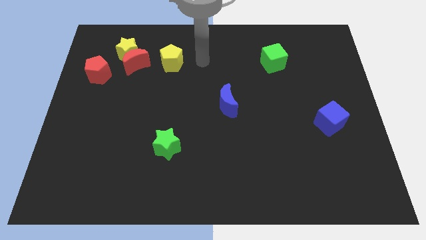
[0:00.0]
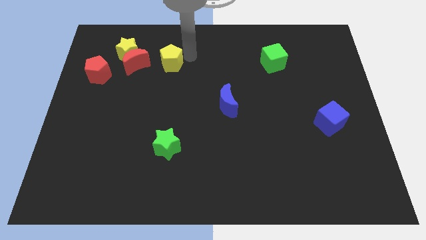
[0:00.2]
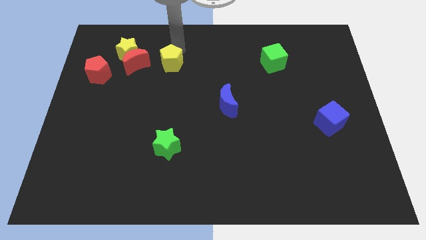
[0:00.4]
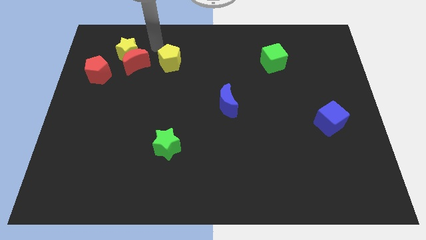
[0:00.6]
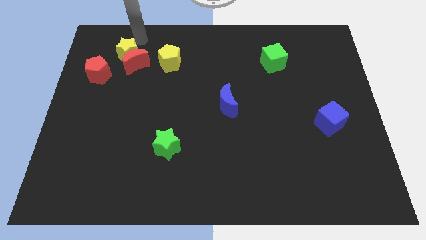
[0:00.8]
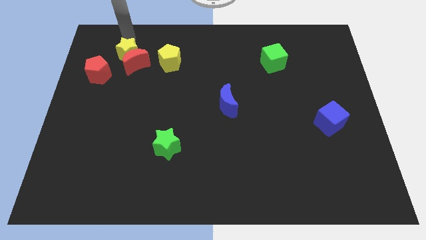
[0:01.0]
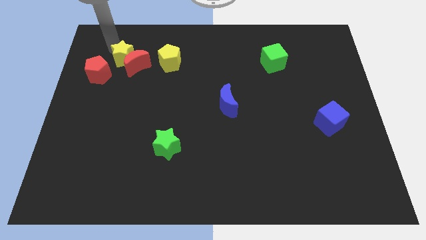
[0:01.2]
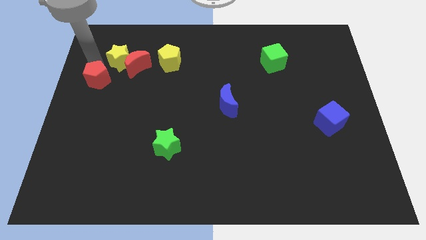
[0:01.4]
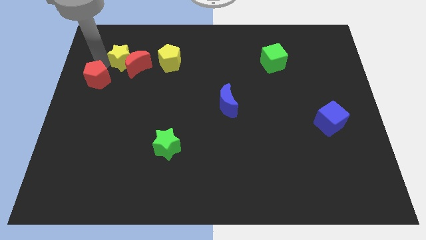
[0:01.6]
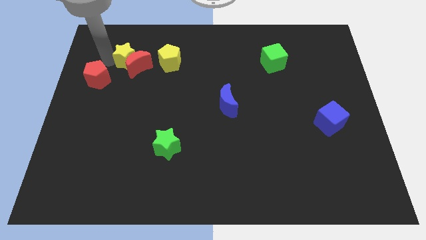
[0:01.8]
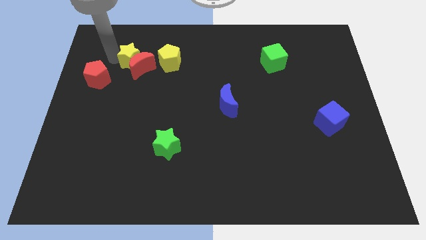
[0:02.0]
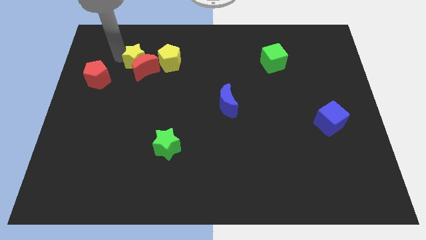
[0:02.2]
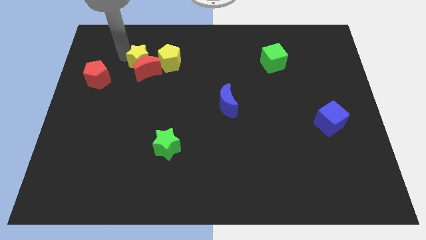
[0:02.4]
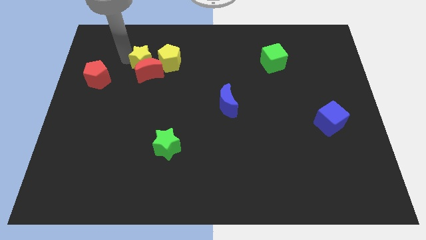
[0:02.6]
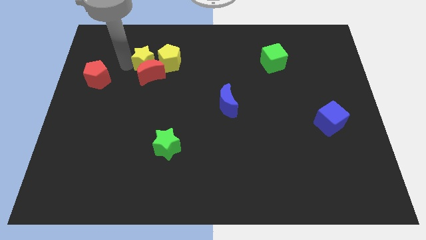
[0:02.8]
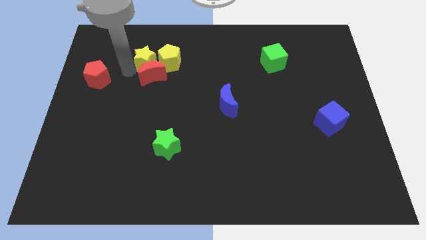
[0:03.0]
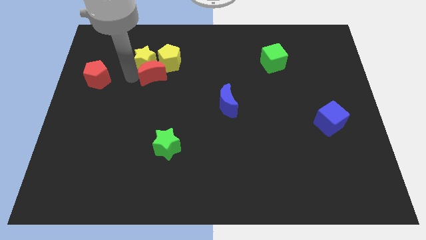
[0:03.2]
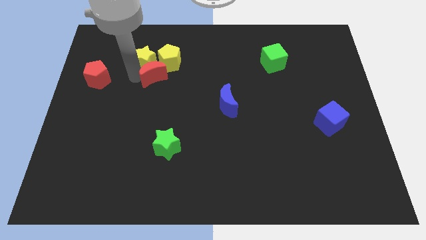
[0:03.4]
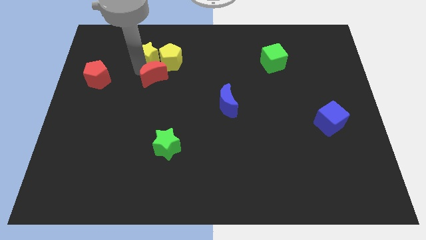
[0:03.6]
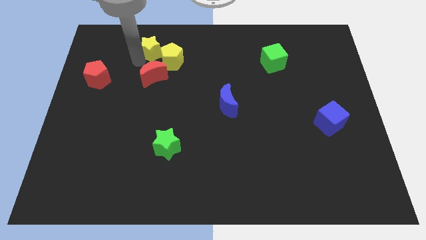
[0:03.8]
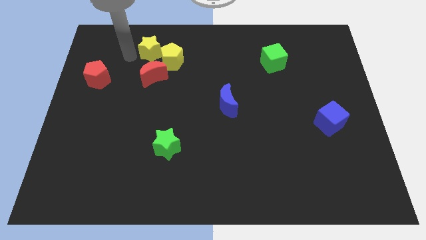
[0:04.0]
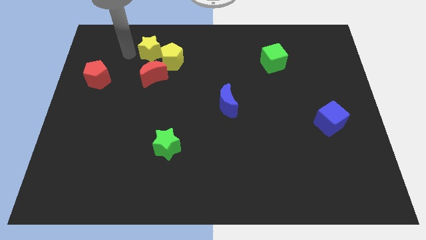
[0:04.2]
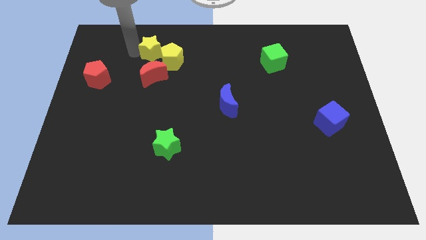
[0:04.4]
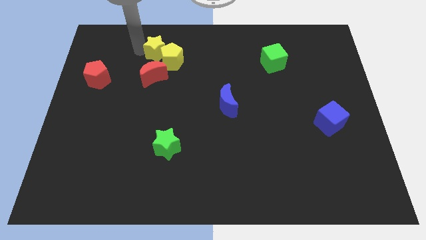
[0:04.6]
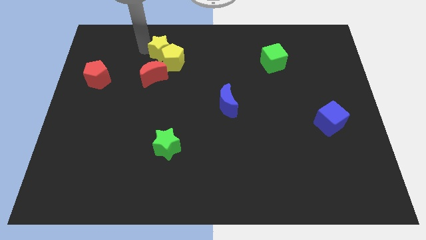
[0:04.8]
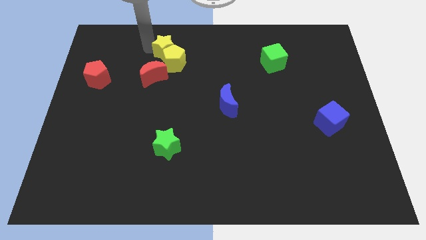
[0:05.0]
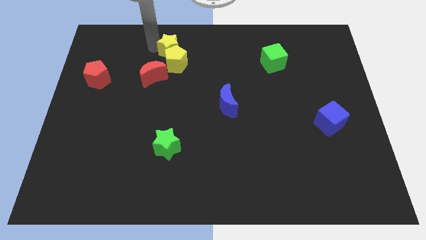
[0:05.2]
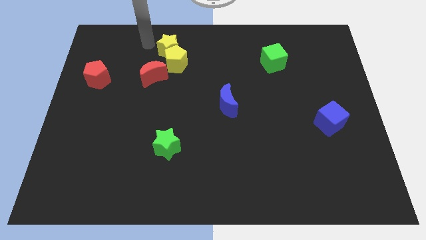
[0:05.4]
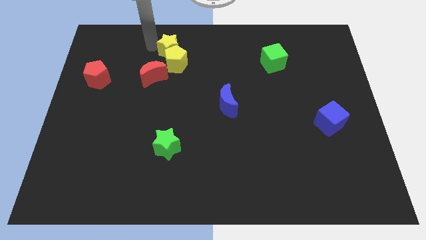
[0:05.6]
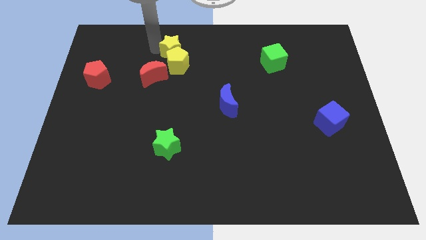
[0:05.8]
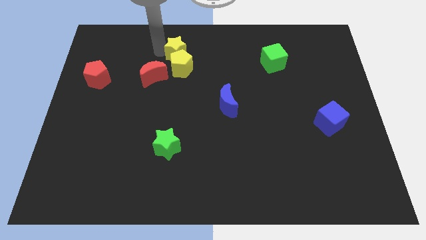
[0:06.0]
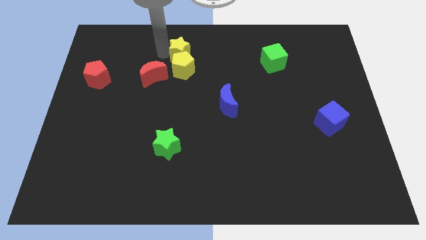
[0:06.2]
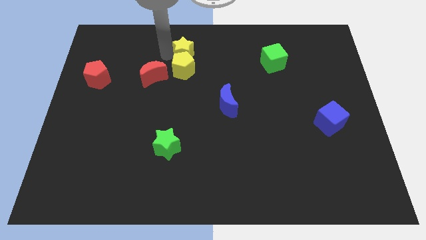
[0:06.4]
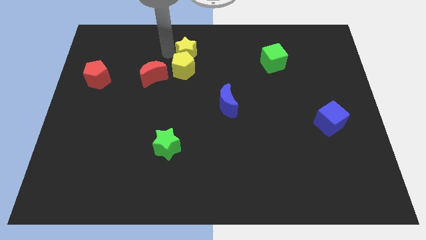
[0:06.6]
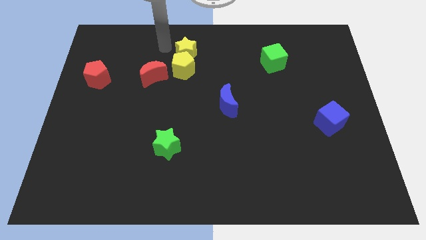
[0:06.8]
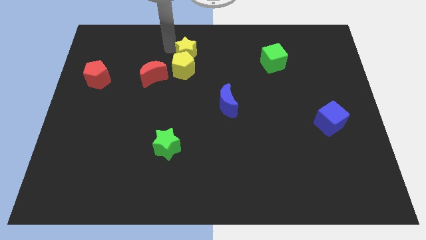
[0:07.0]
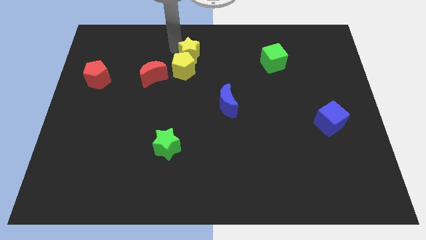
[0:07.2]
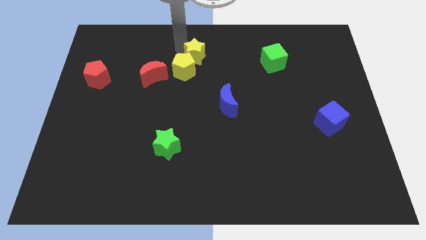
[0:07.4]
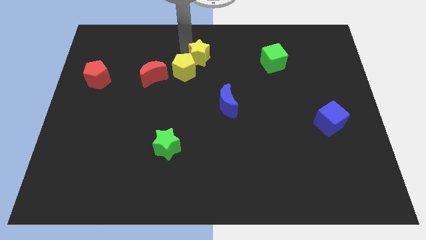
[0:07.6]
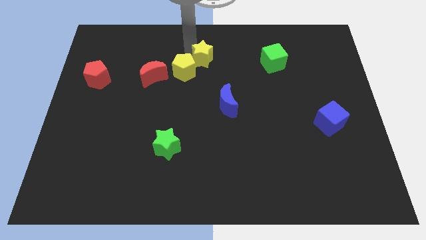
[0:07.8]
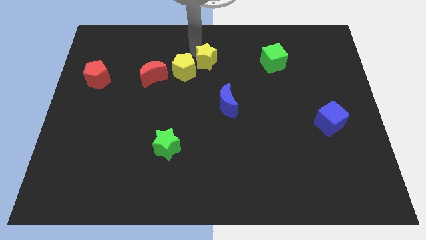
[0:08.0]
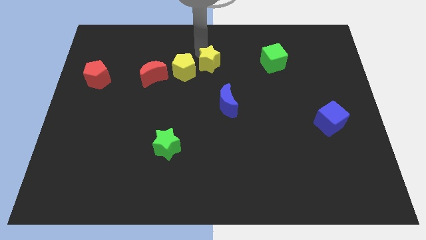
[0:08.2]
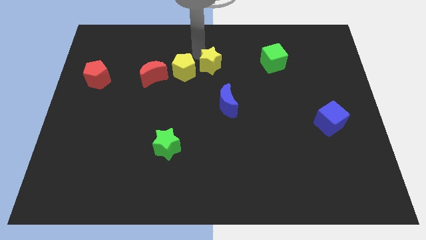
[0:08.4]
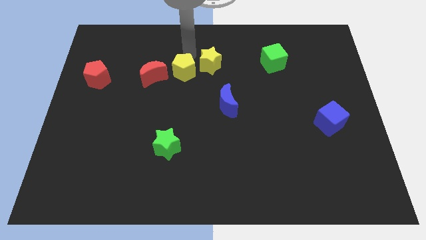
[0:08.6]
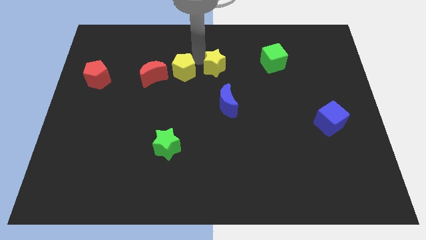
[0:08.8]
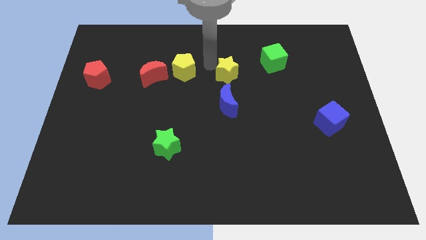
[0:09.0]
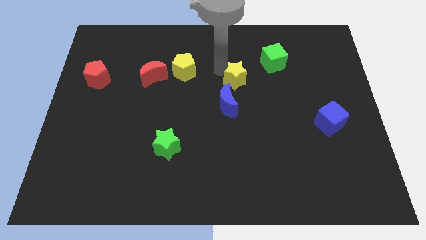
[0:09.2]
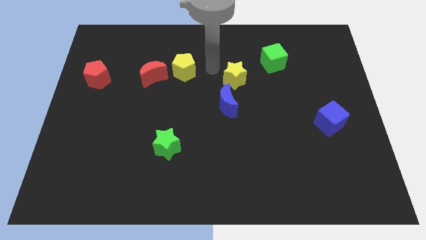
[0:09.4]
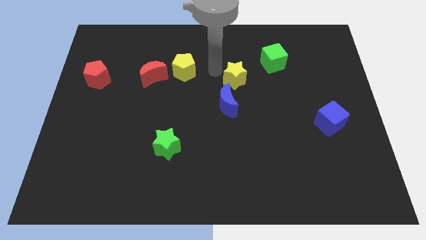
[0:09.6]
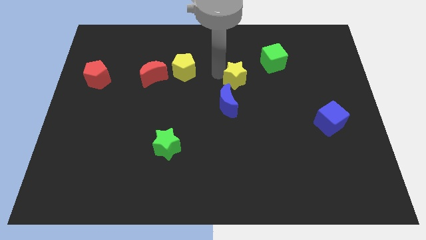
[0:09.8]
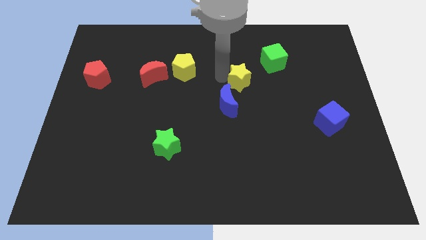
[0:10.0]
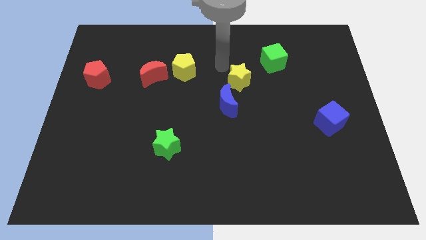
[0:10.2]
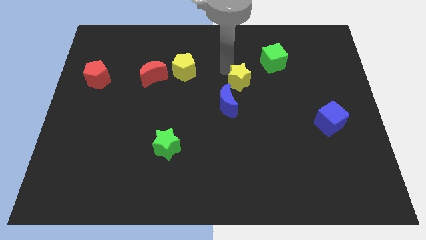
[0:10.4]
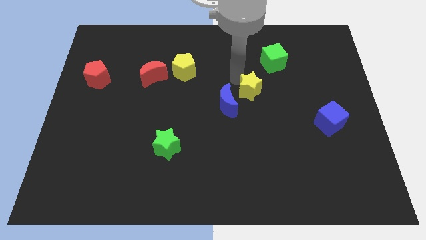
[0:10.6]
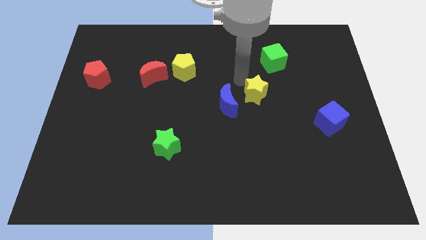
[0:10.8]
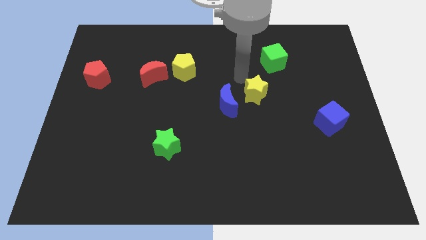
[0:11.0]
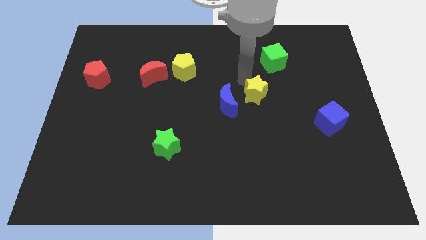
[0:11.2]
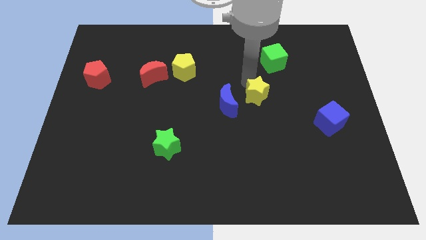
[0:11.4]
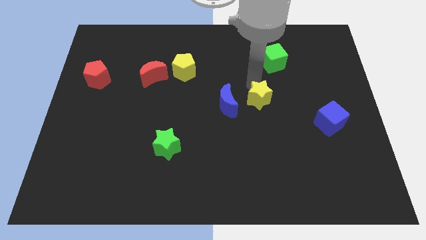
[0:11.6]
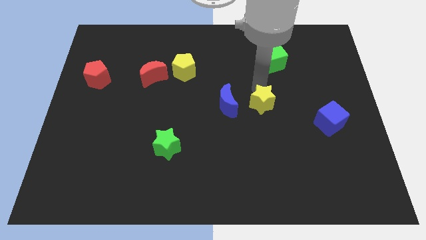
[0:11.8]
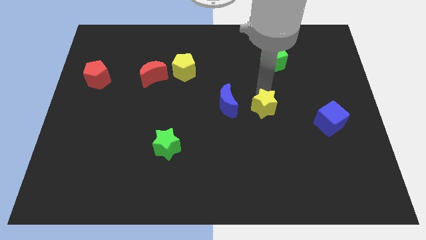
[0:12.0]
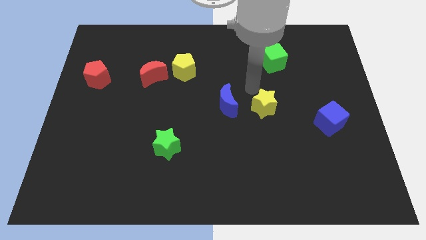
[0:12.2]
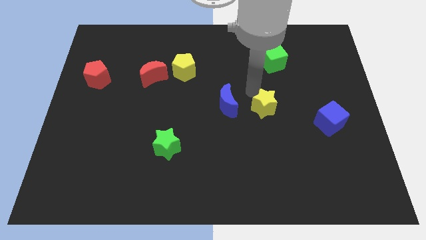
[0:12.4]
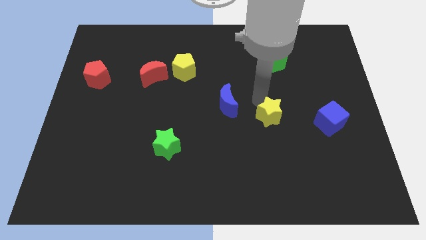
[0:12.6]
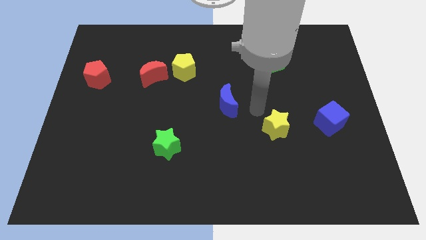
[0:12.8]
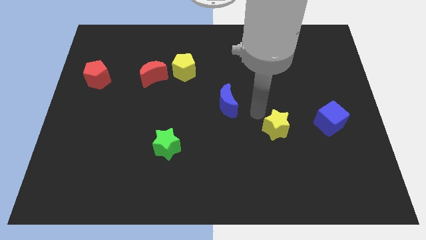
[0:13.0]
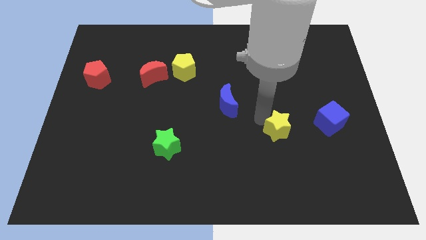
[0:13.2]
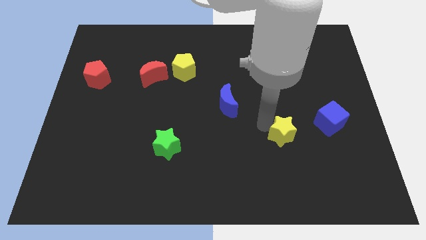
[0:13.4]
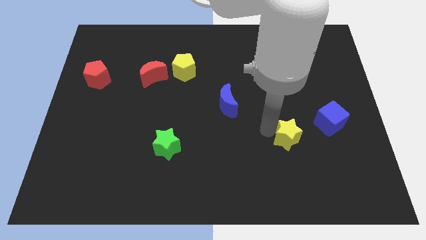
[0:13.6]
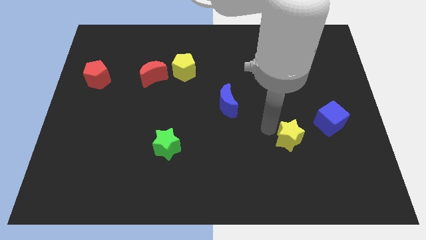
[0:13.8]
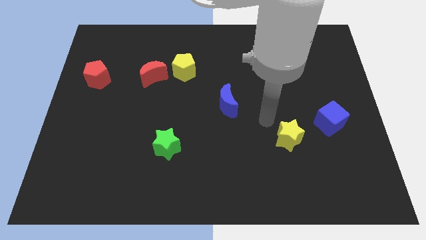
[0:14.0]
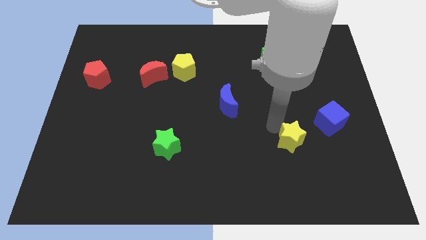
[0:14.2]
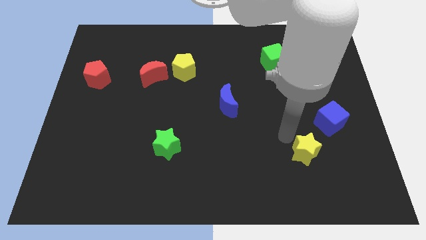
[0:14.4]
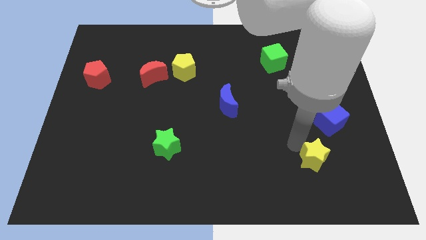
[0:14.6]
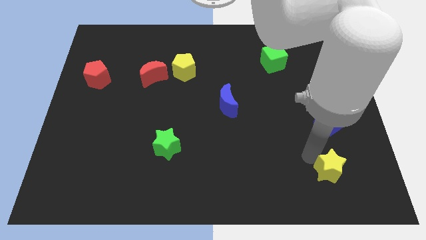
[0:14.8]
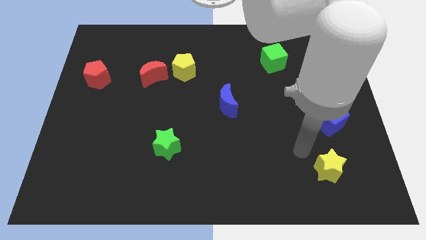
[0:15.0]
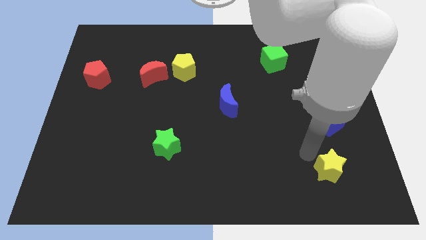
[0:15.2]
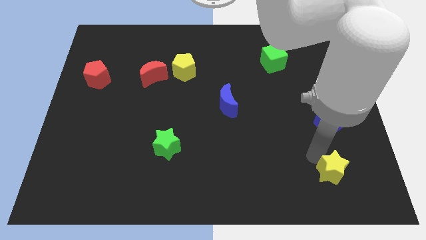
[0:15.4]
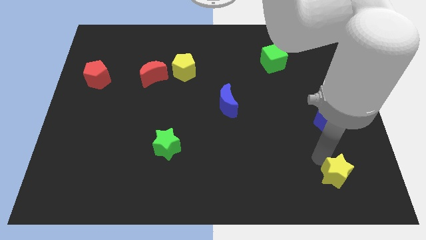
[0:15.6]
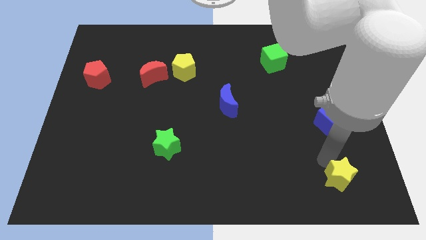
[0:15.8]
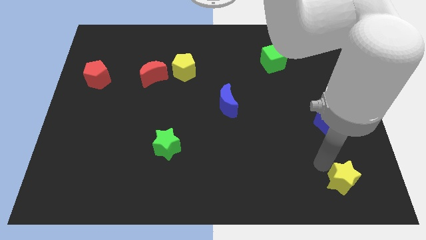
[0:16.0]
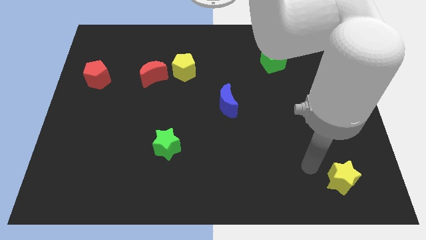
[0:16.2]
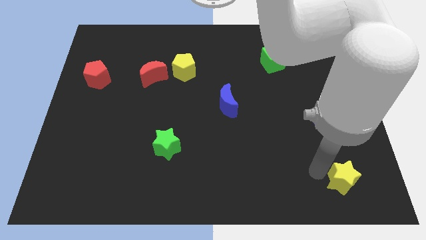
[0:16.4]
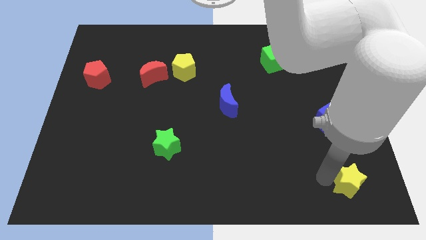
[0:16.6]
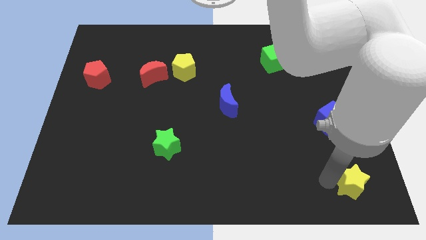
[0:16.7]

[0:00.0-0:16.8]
put the yellow star to the bottom right
